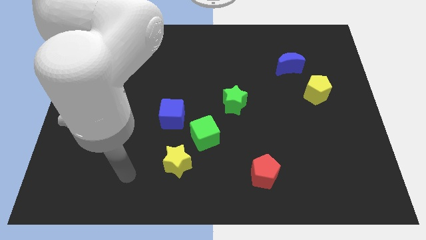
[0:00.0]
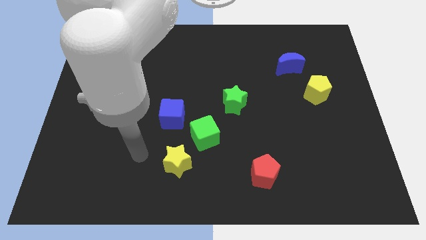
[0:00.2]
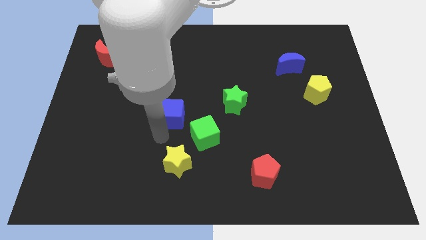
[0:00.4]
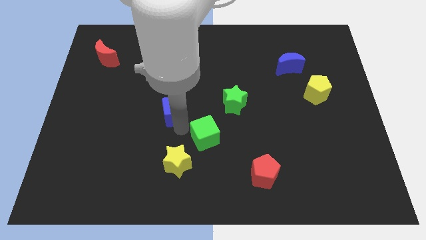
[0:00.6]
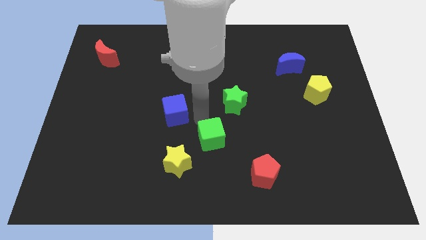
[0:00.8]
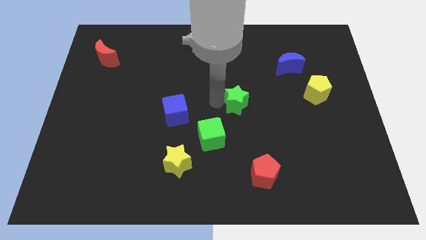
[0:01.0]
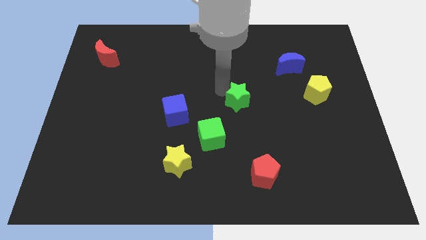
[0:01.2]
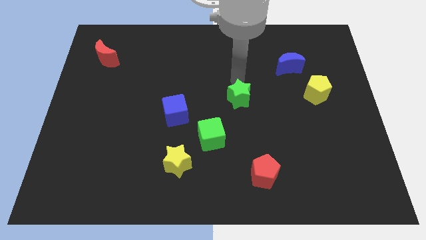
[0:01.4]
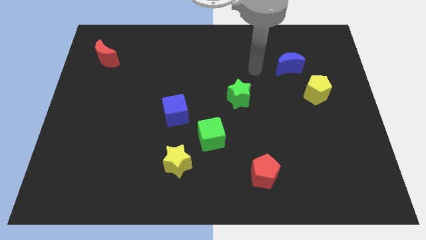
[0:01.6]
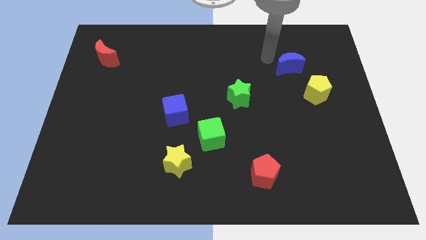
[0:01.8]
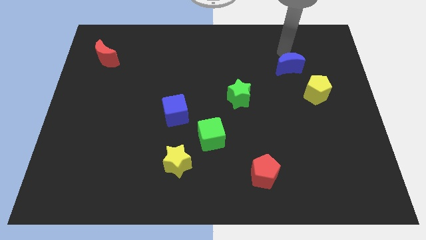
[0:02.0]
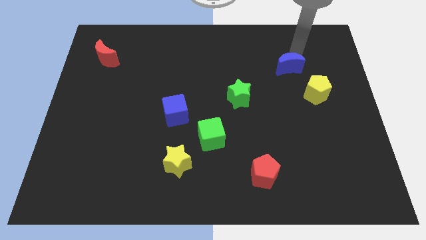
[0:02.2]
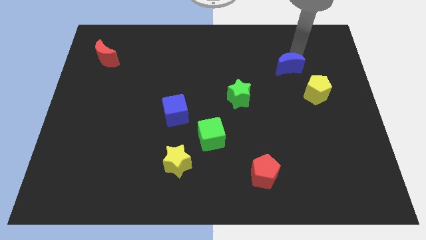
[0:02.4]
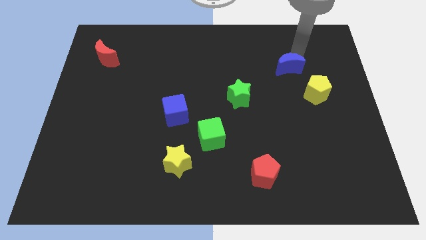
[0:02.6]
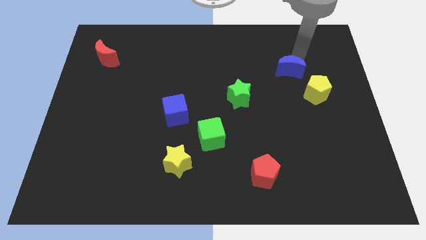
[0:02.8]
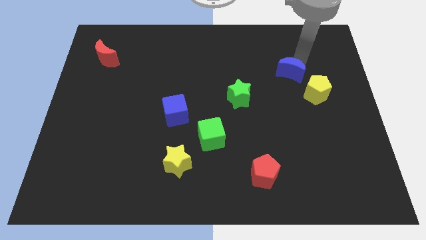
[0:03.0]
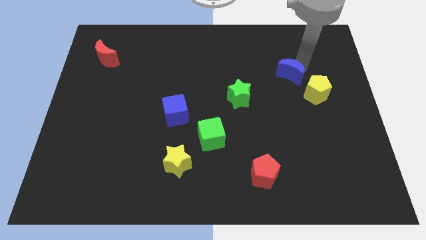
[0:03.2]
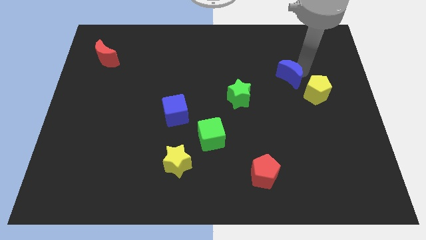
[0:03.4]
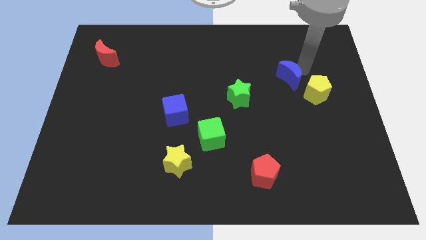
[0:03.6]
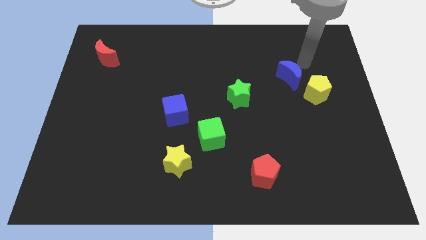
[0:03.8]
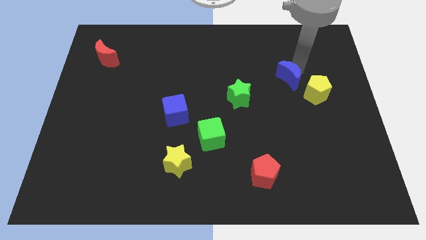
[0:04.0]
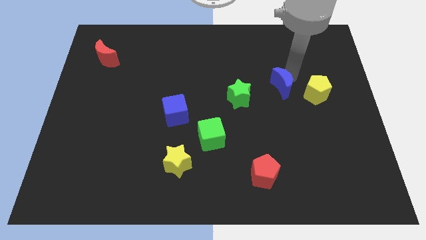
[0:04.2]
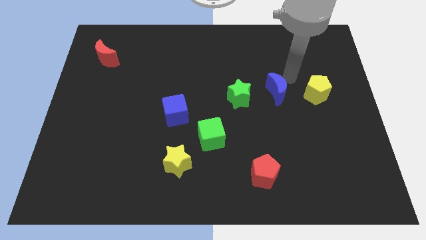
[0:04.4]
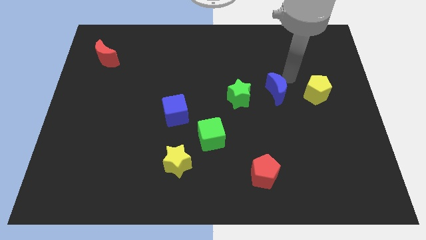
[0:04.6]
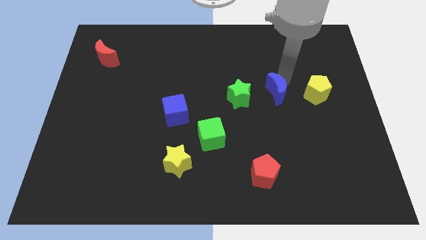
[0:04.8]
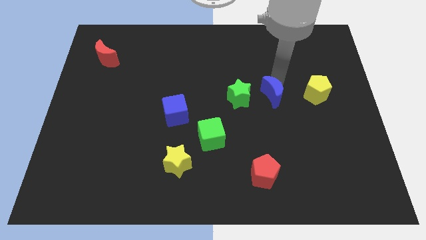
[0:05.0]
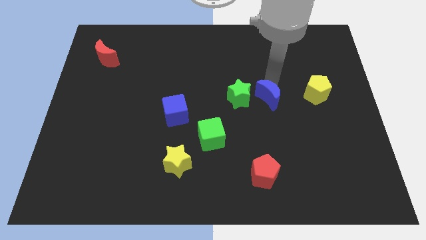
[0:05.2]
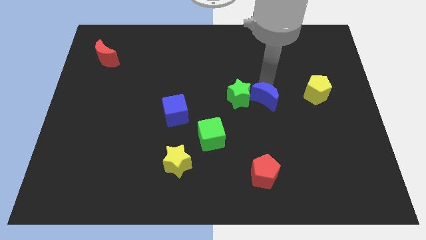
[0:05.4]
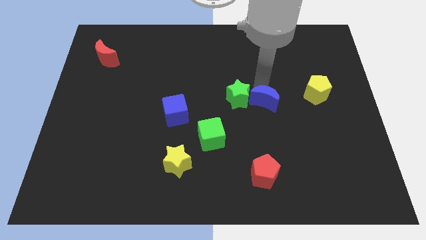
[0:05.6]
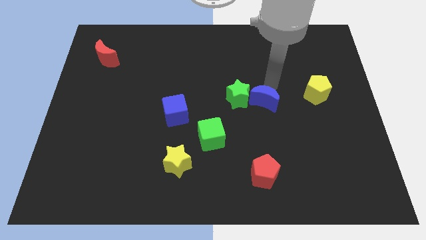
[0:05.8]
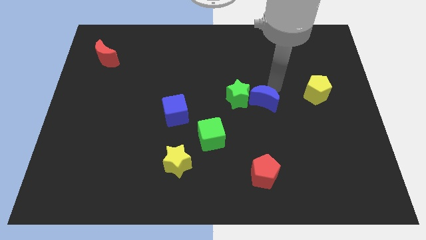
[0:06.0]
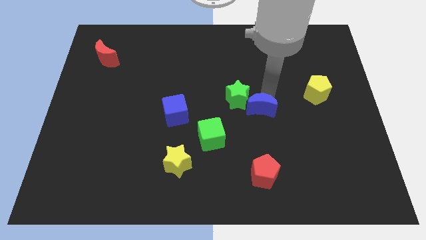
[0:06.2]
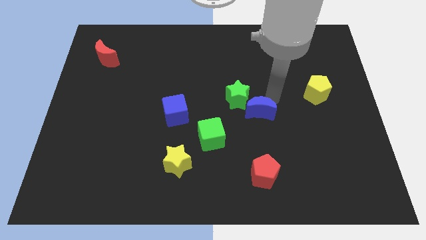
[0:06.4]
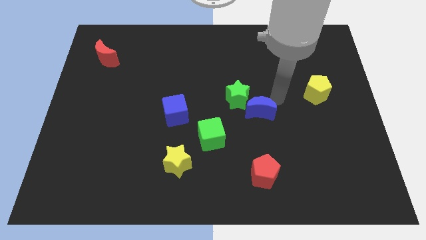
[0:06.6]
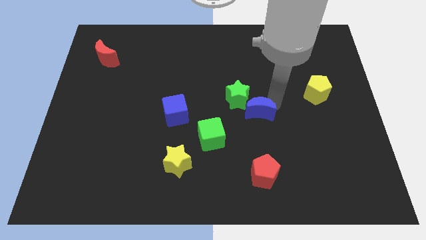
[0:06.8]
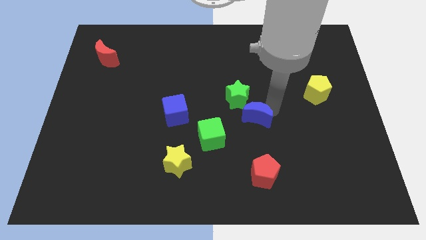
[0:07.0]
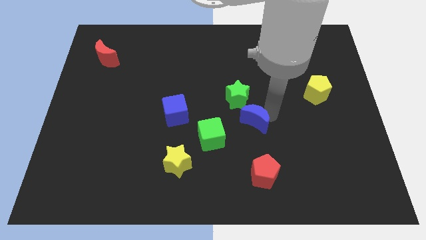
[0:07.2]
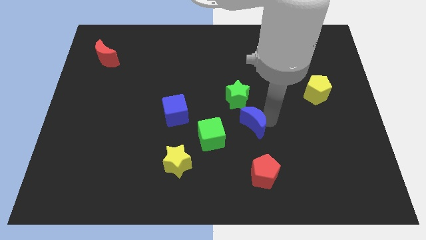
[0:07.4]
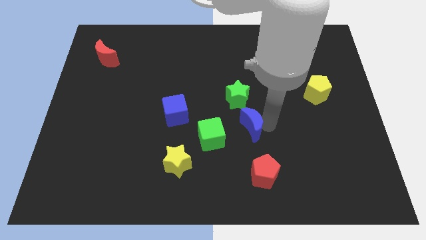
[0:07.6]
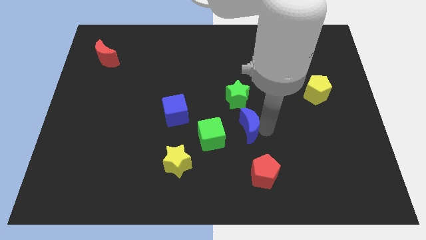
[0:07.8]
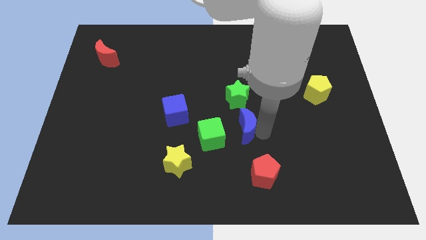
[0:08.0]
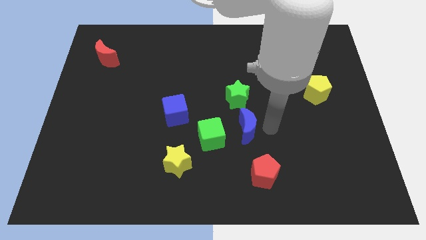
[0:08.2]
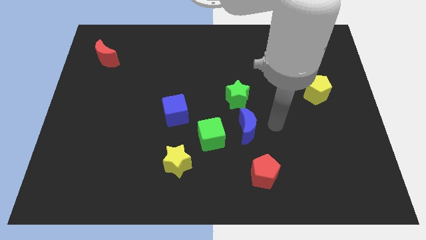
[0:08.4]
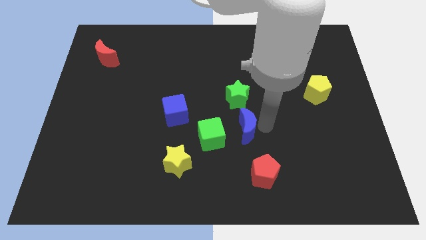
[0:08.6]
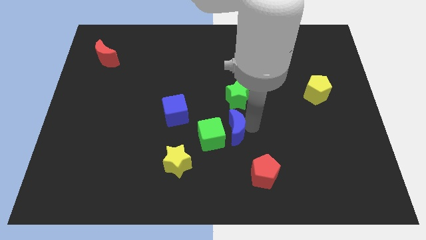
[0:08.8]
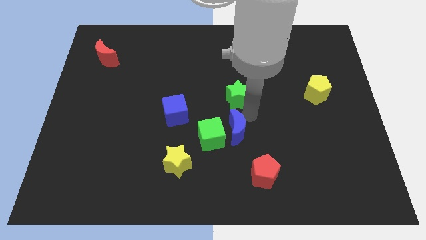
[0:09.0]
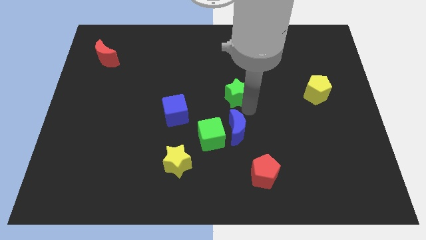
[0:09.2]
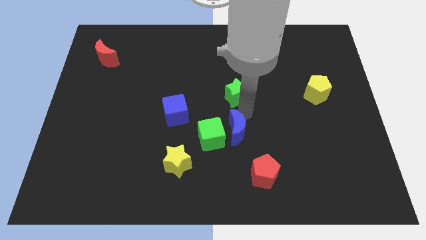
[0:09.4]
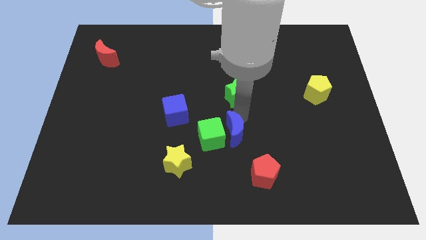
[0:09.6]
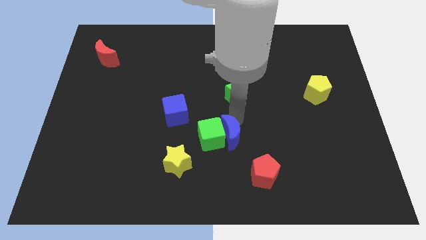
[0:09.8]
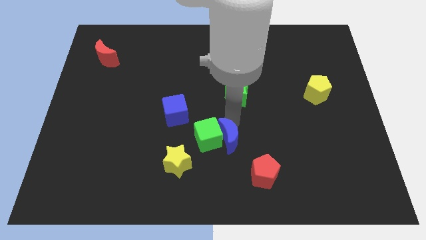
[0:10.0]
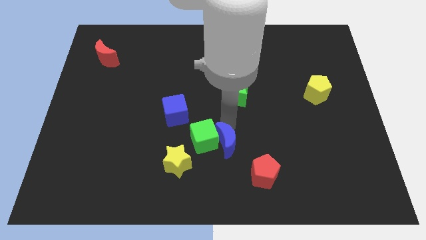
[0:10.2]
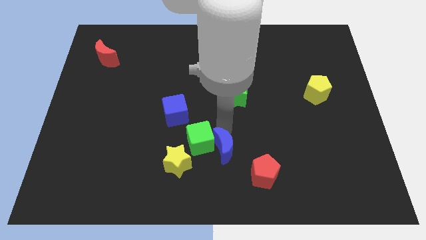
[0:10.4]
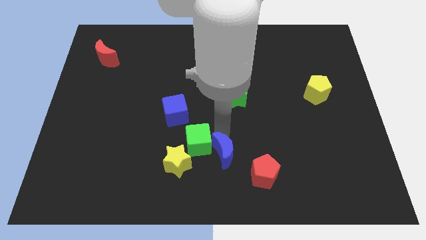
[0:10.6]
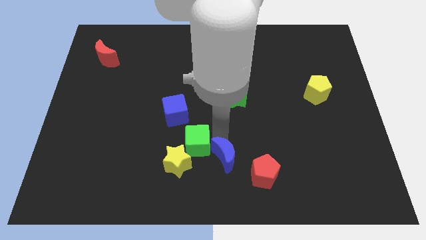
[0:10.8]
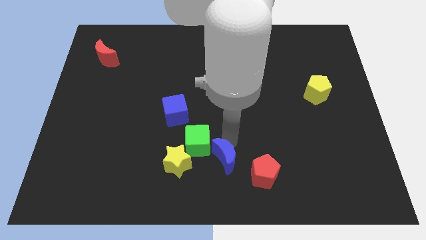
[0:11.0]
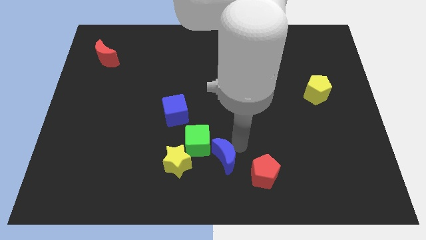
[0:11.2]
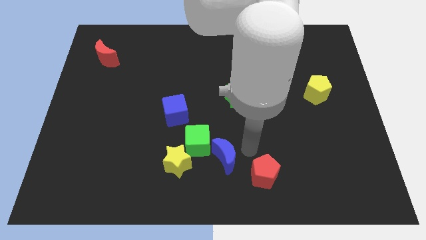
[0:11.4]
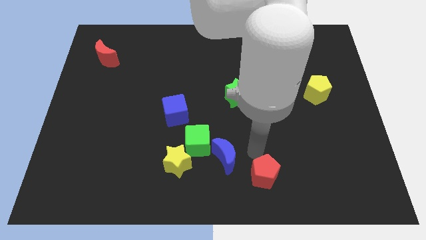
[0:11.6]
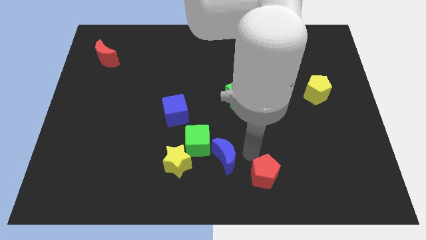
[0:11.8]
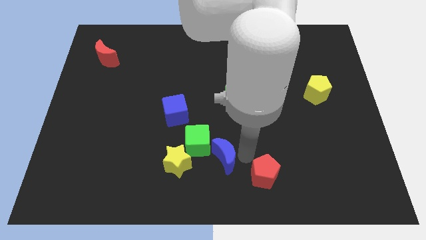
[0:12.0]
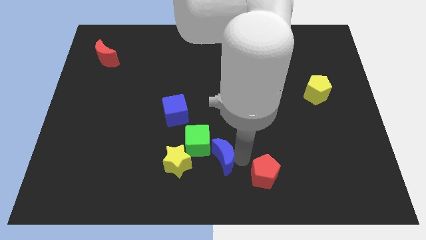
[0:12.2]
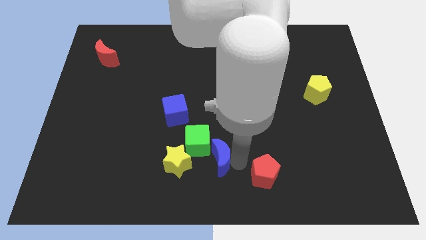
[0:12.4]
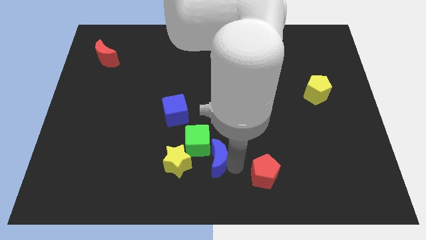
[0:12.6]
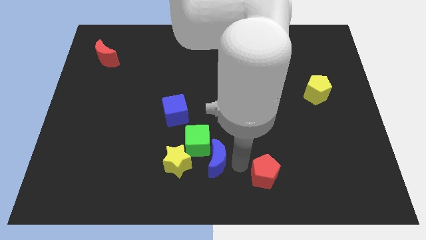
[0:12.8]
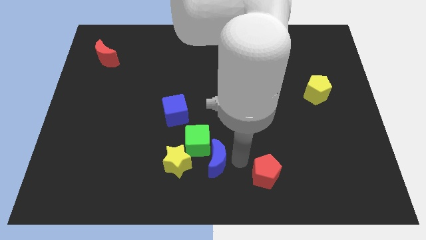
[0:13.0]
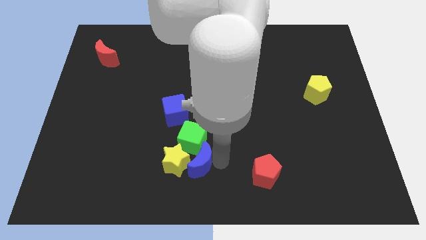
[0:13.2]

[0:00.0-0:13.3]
slide the blue moon towards the yellow star

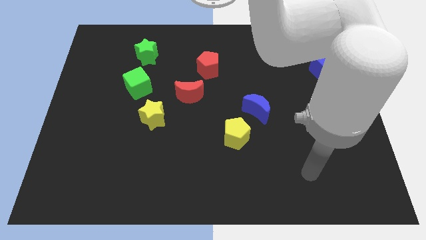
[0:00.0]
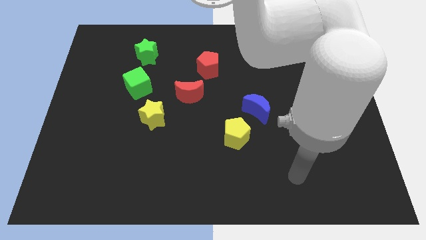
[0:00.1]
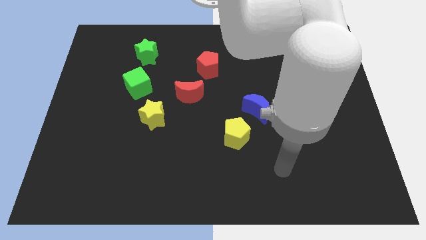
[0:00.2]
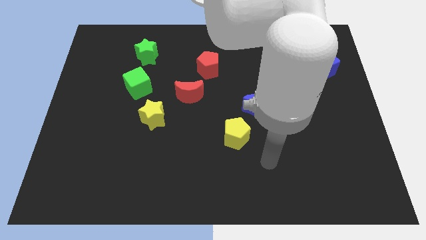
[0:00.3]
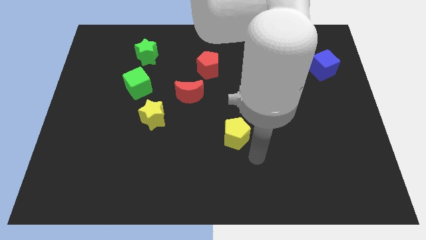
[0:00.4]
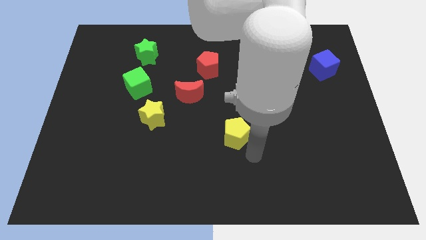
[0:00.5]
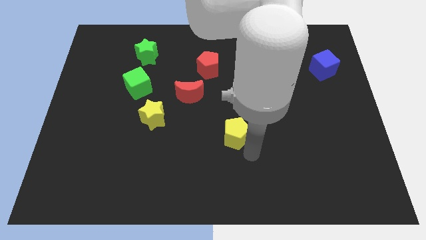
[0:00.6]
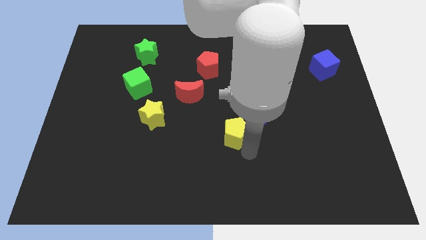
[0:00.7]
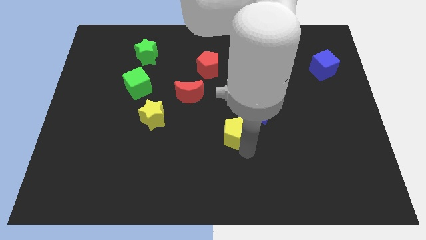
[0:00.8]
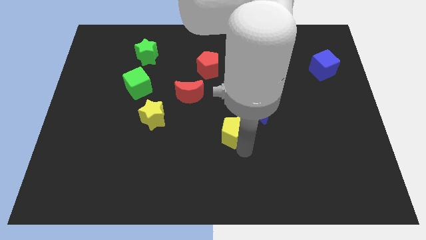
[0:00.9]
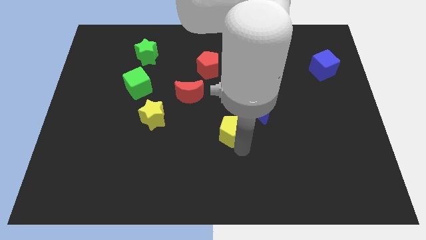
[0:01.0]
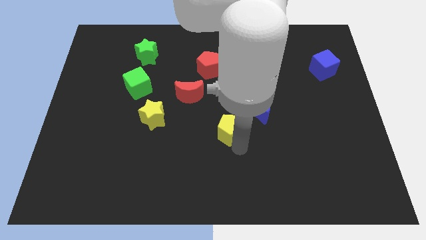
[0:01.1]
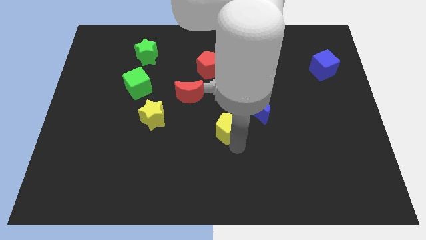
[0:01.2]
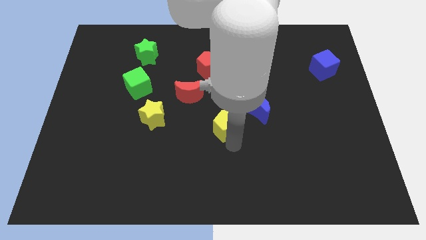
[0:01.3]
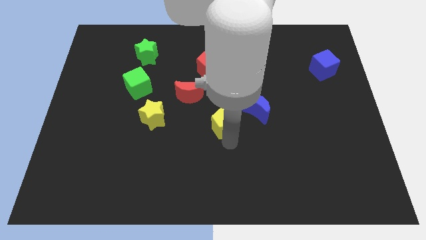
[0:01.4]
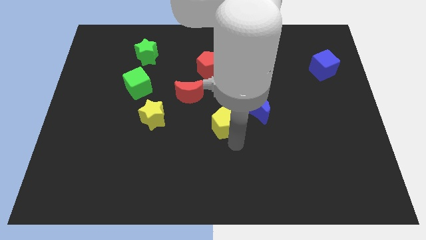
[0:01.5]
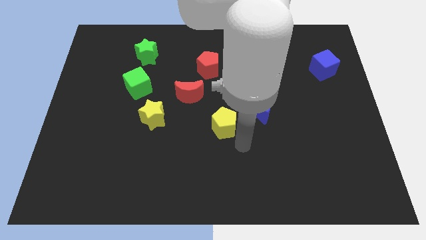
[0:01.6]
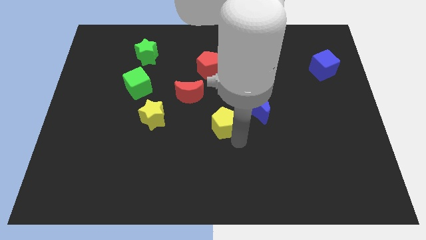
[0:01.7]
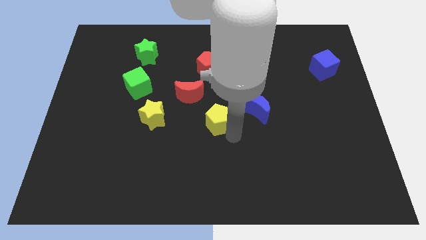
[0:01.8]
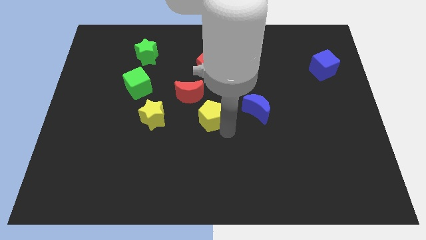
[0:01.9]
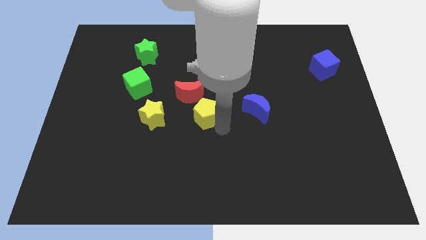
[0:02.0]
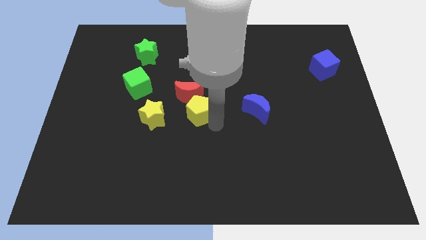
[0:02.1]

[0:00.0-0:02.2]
put the yellow pentagon next to the red moon
